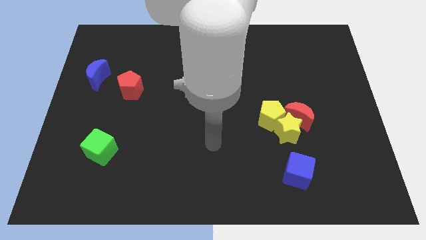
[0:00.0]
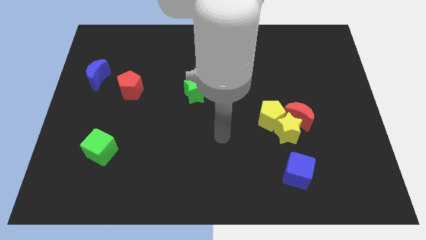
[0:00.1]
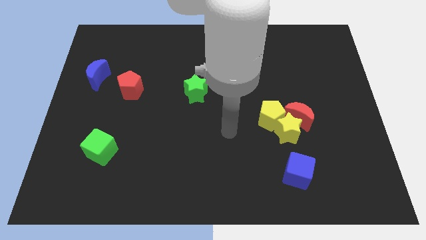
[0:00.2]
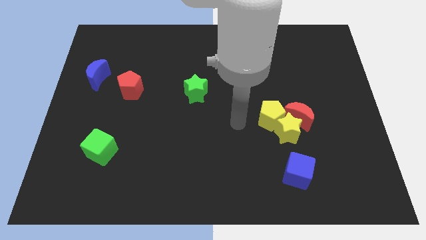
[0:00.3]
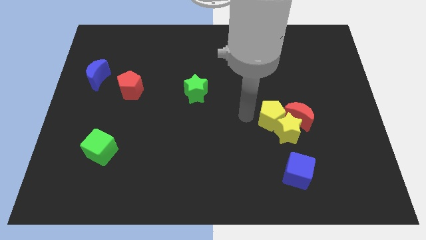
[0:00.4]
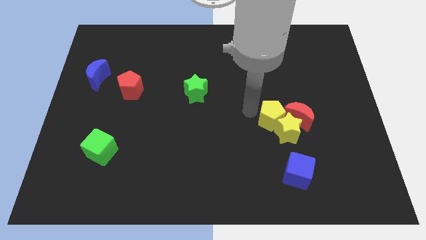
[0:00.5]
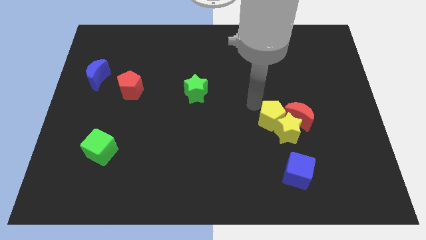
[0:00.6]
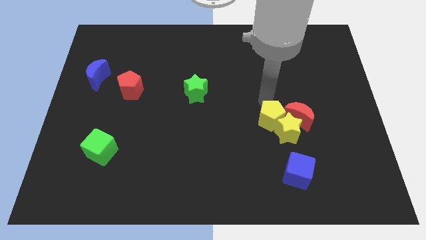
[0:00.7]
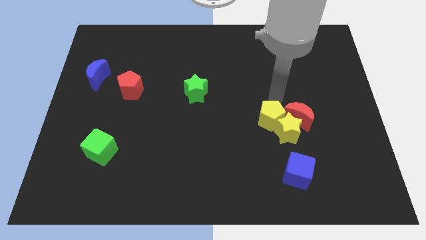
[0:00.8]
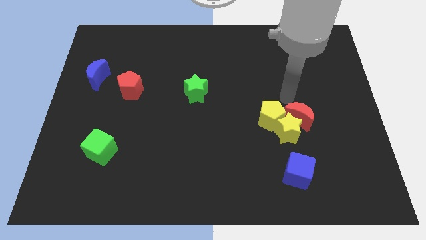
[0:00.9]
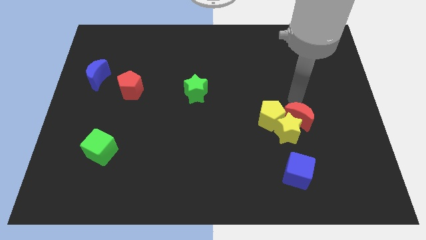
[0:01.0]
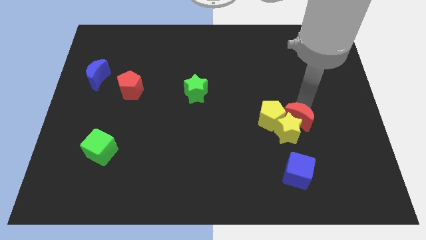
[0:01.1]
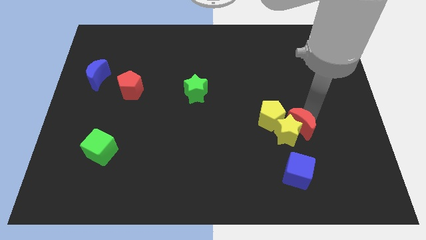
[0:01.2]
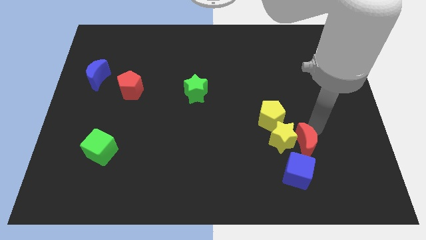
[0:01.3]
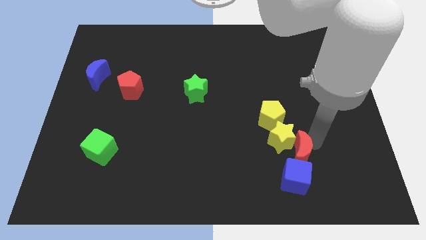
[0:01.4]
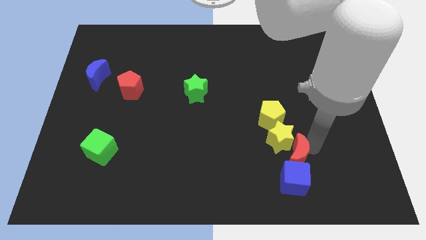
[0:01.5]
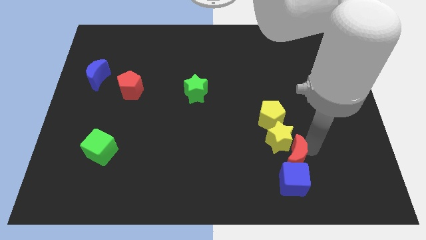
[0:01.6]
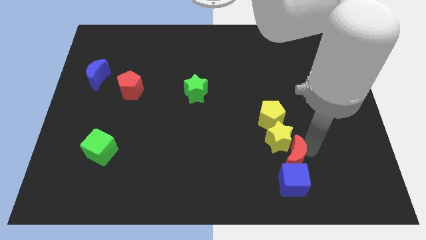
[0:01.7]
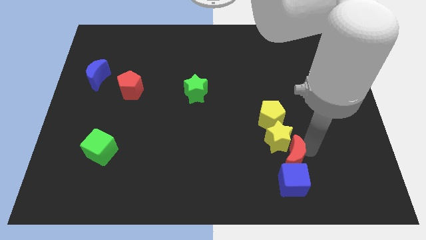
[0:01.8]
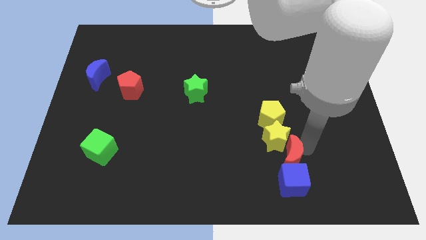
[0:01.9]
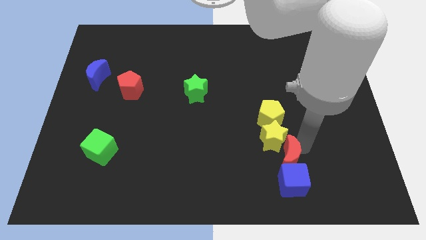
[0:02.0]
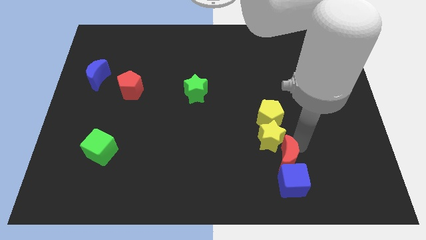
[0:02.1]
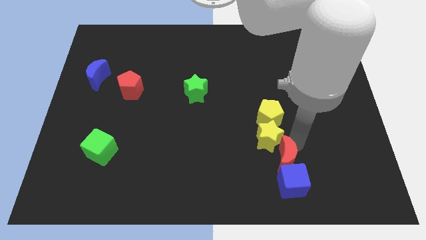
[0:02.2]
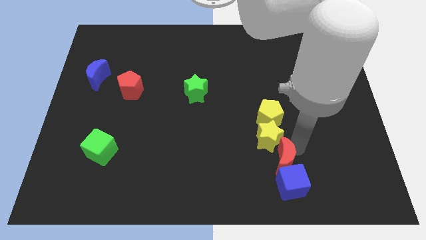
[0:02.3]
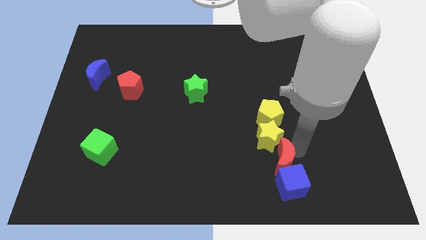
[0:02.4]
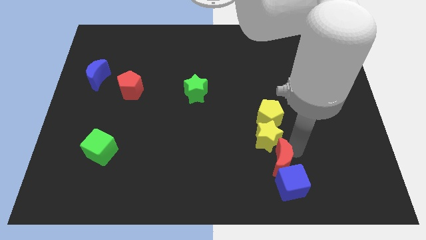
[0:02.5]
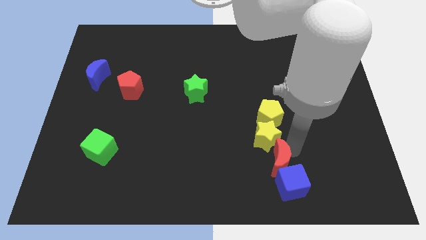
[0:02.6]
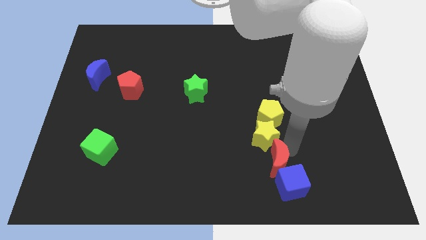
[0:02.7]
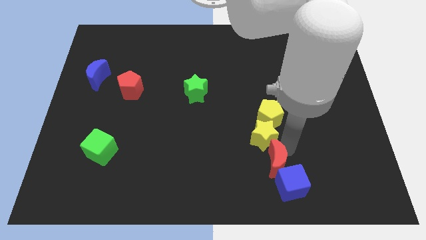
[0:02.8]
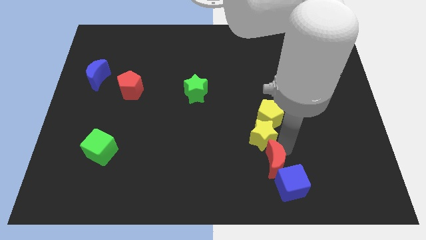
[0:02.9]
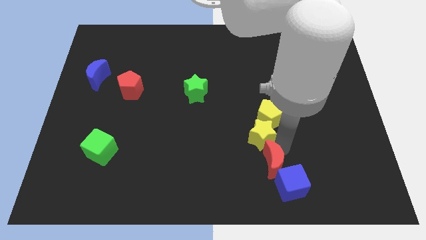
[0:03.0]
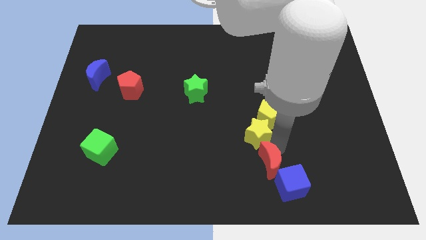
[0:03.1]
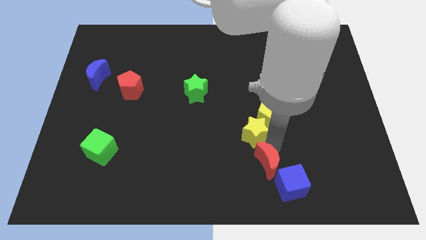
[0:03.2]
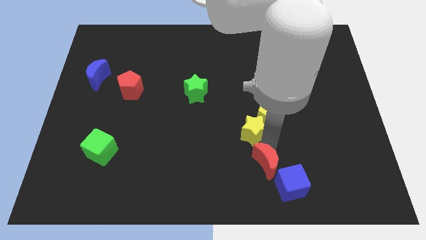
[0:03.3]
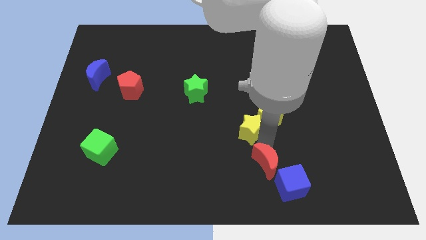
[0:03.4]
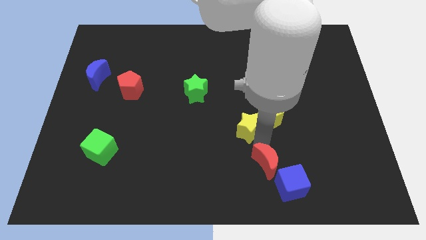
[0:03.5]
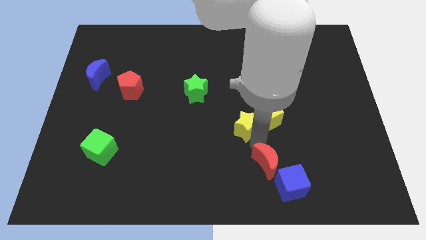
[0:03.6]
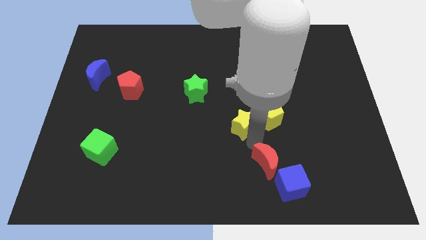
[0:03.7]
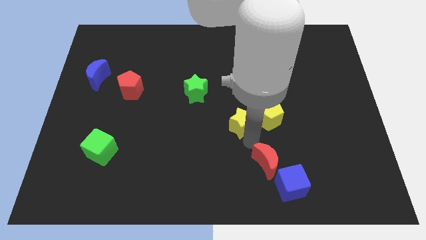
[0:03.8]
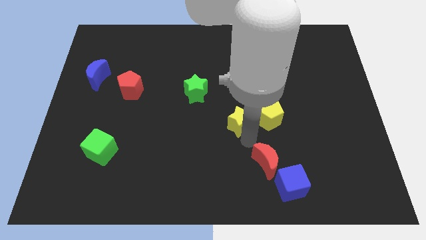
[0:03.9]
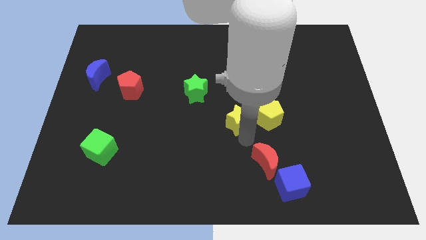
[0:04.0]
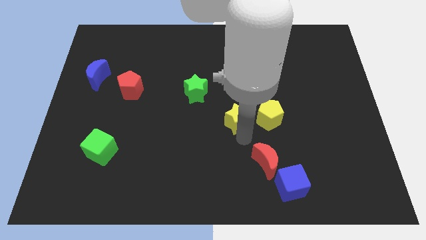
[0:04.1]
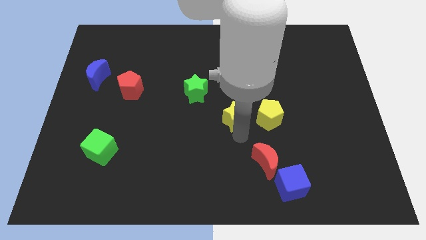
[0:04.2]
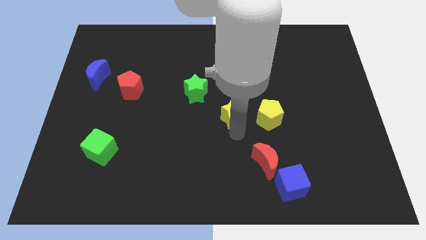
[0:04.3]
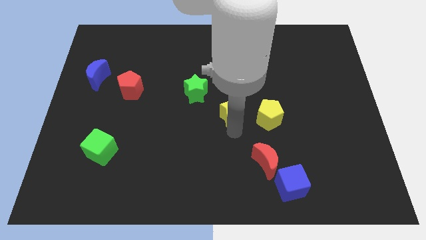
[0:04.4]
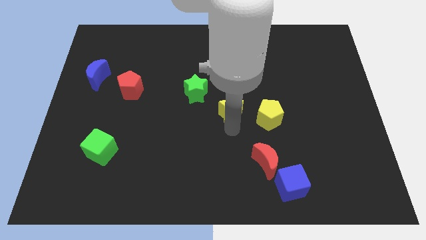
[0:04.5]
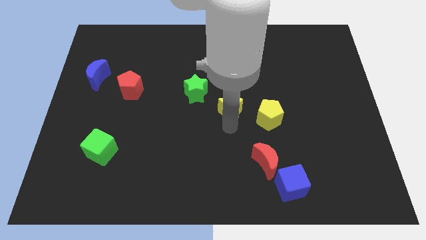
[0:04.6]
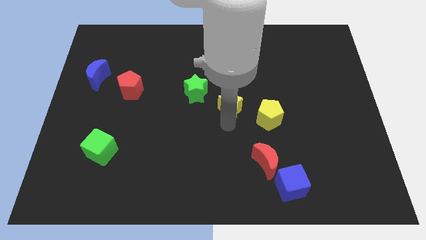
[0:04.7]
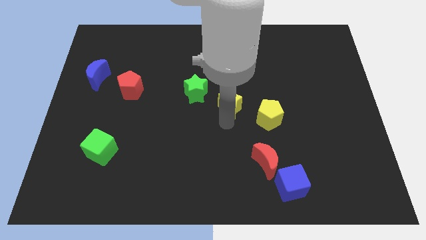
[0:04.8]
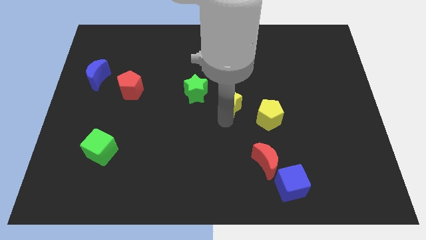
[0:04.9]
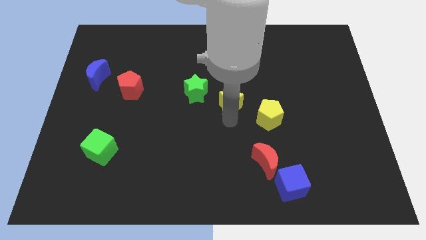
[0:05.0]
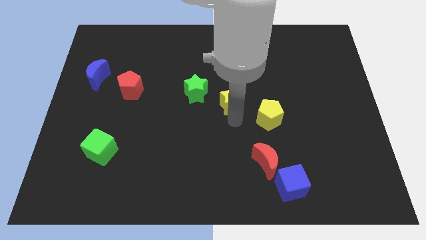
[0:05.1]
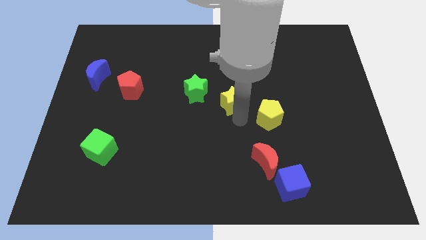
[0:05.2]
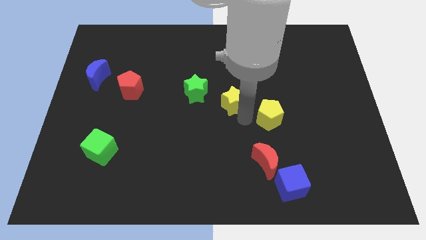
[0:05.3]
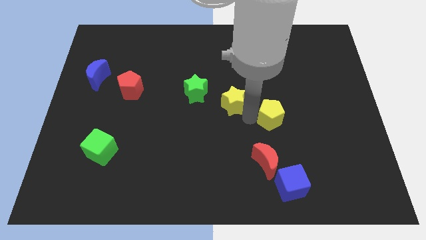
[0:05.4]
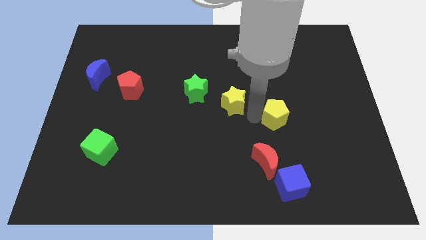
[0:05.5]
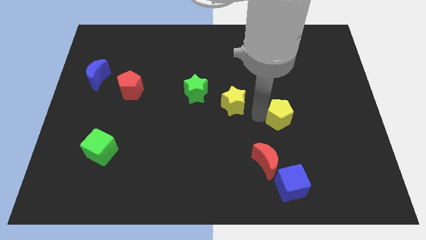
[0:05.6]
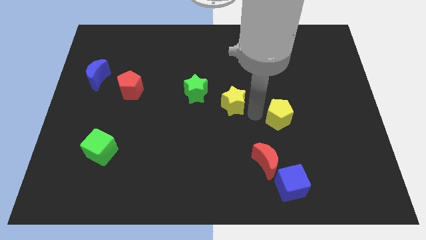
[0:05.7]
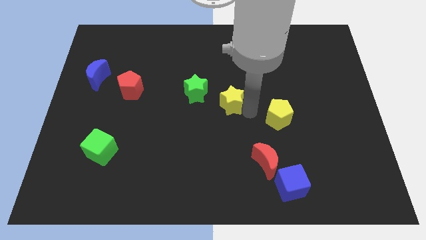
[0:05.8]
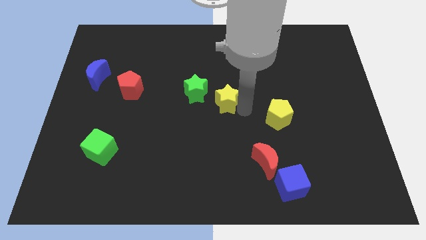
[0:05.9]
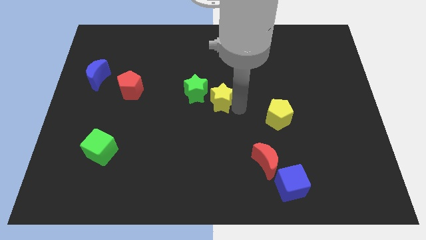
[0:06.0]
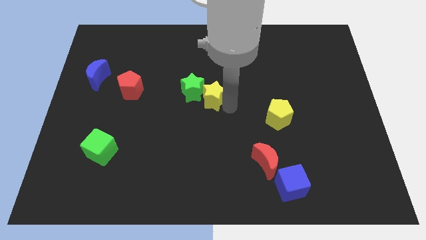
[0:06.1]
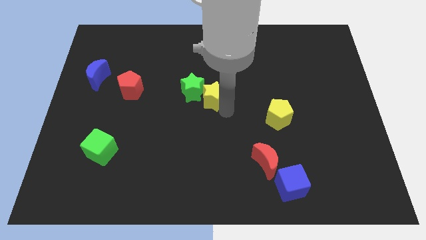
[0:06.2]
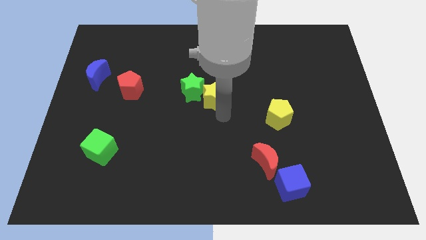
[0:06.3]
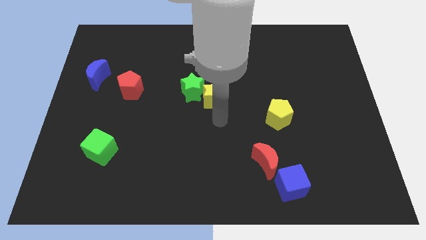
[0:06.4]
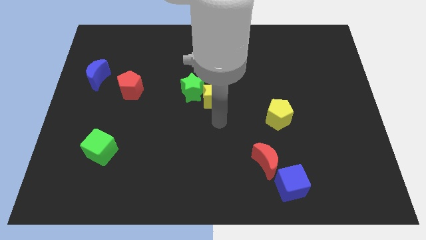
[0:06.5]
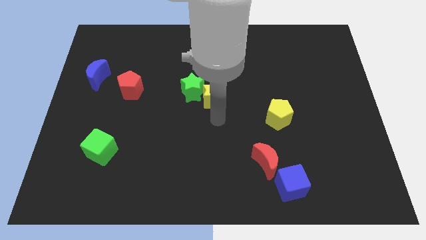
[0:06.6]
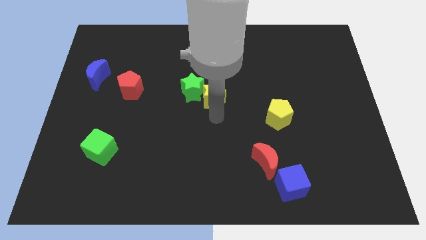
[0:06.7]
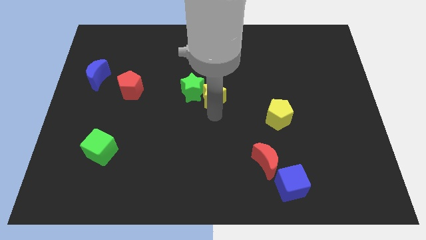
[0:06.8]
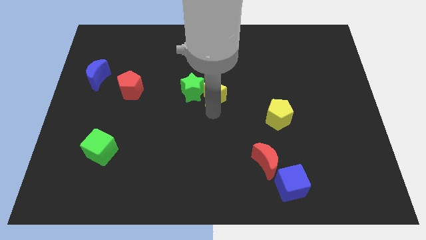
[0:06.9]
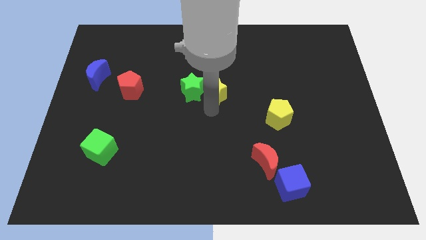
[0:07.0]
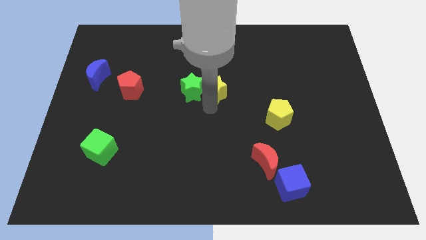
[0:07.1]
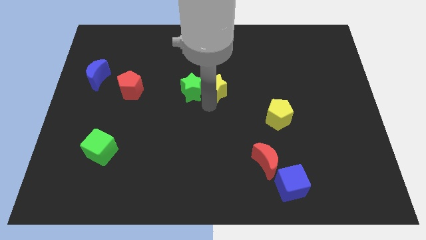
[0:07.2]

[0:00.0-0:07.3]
push the yellow star diagonally up and left

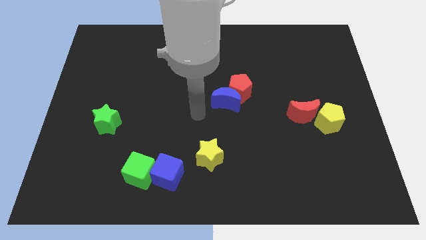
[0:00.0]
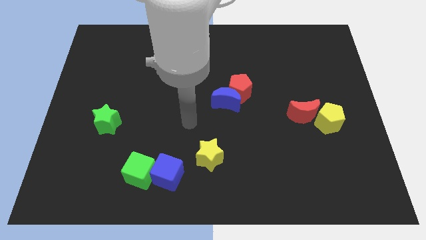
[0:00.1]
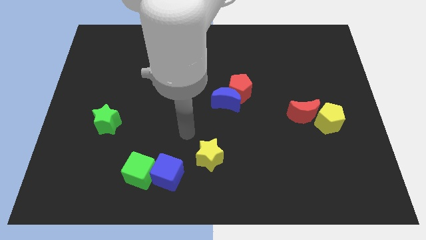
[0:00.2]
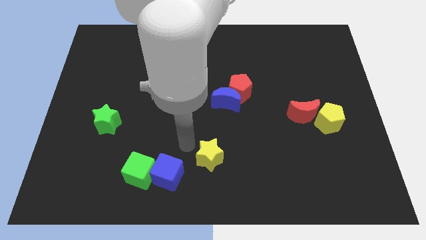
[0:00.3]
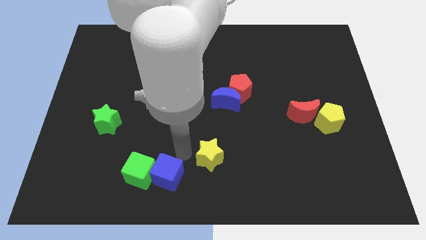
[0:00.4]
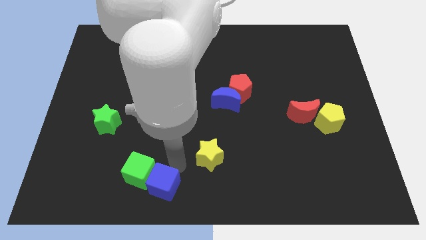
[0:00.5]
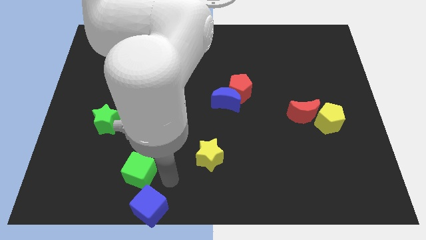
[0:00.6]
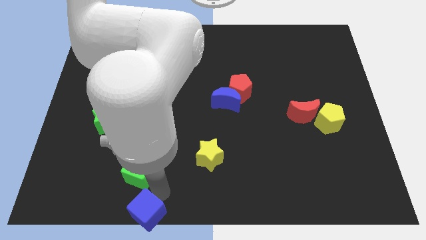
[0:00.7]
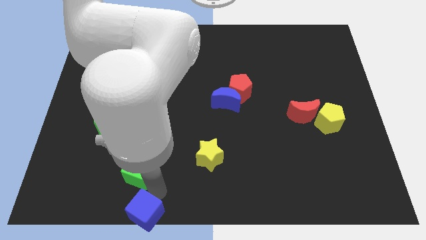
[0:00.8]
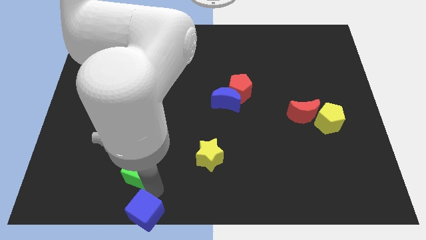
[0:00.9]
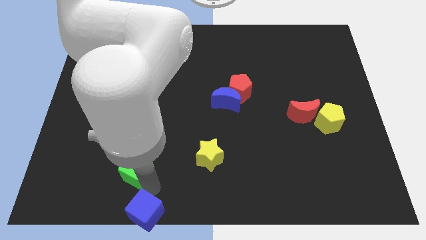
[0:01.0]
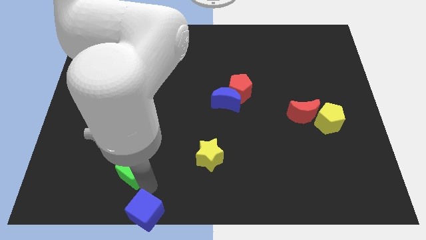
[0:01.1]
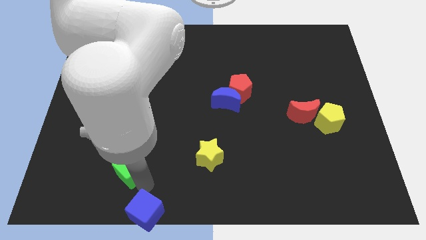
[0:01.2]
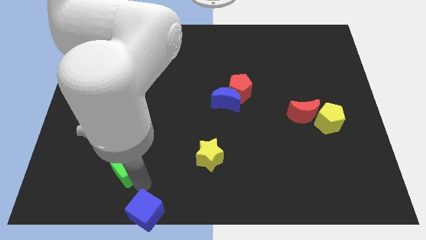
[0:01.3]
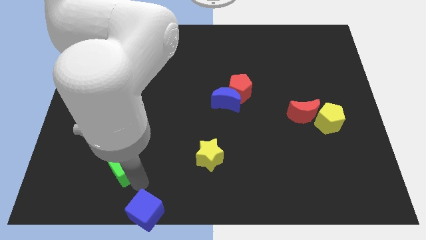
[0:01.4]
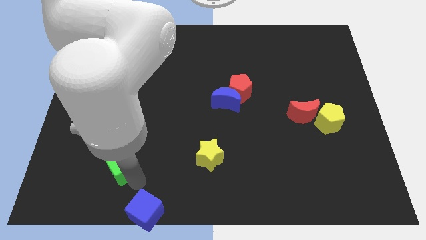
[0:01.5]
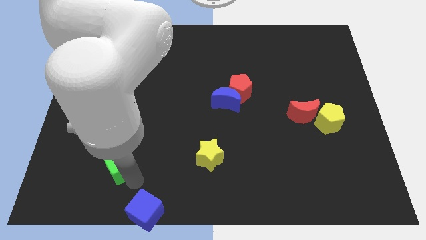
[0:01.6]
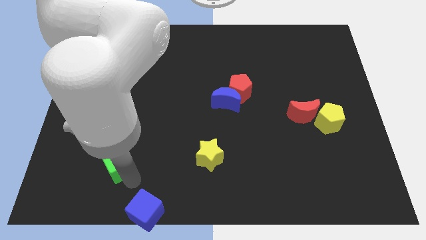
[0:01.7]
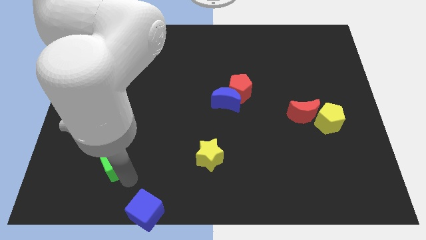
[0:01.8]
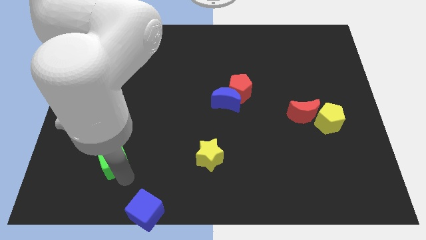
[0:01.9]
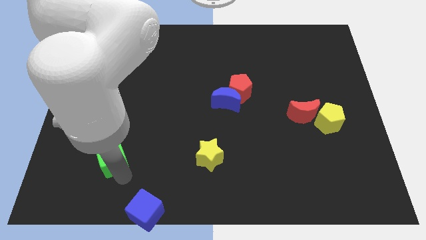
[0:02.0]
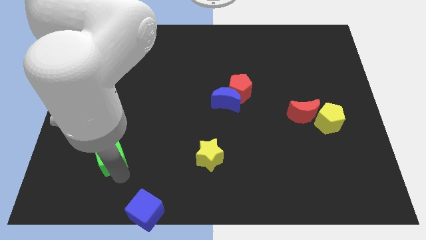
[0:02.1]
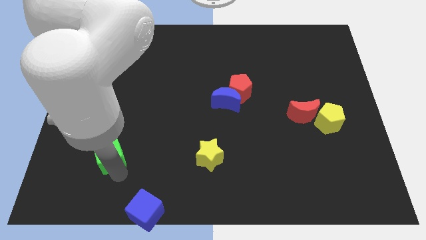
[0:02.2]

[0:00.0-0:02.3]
slide the green cube up and left diagonally somewhat
